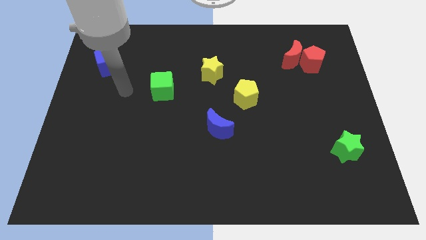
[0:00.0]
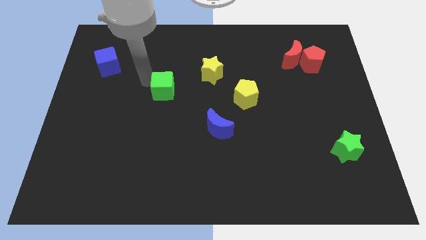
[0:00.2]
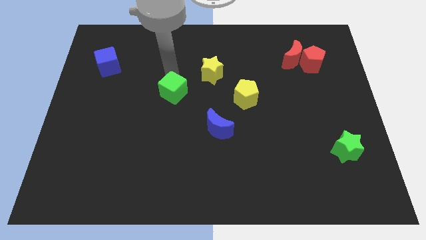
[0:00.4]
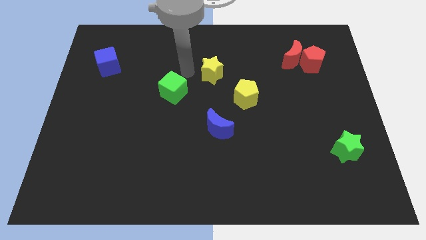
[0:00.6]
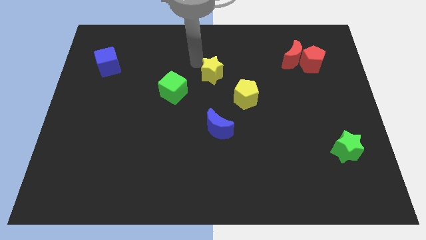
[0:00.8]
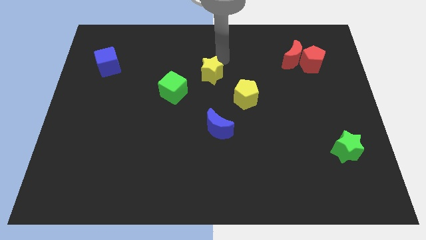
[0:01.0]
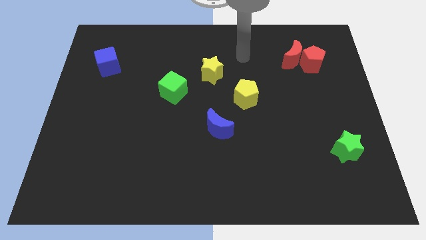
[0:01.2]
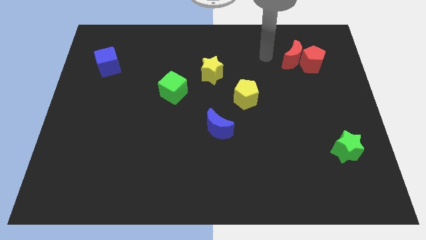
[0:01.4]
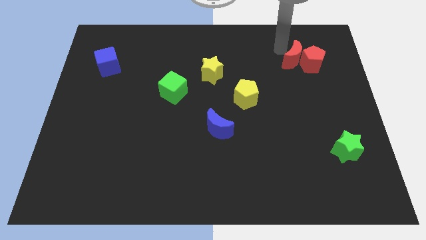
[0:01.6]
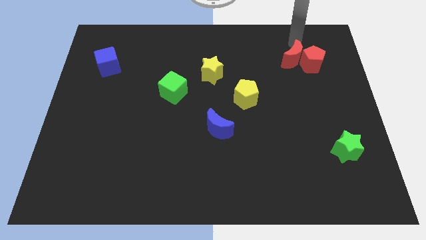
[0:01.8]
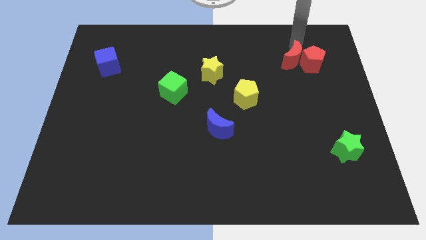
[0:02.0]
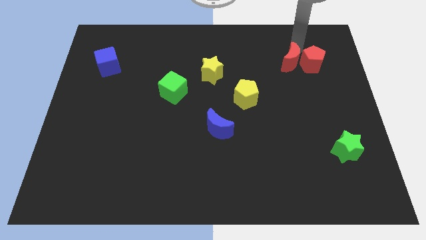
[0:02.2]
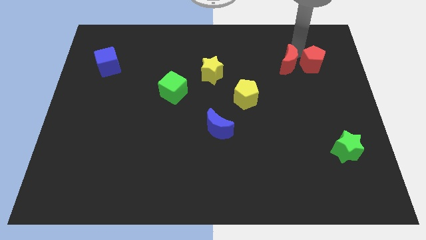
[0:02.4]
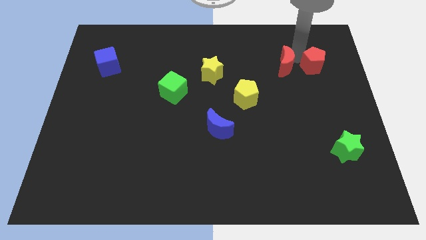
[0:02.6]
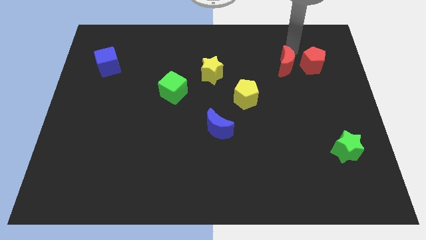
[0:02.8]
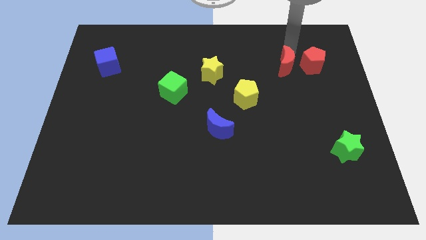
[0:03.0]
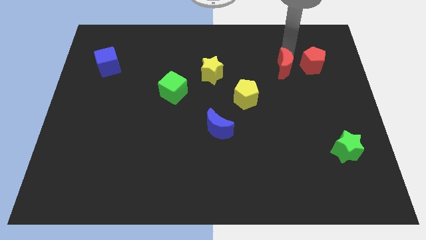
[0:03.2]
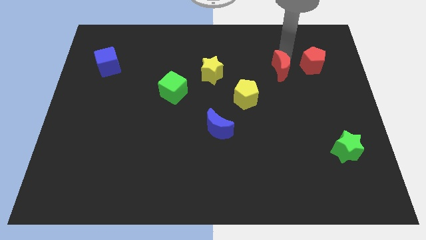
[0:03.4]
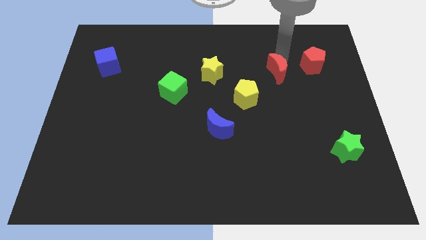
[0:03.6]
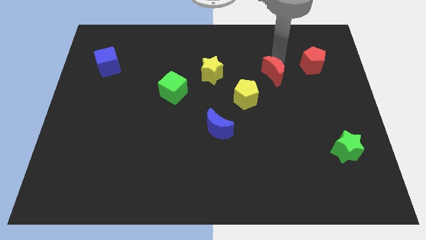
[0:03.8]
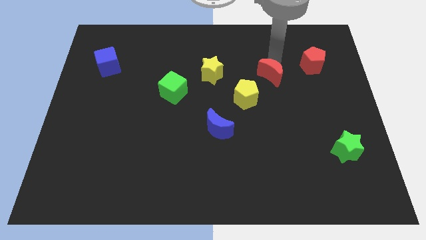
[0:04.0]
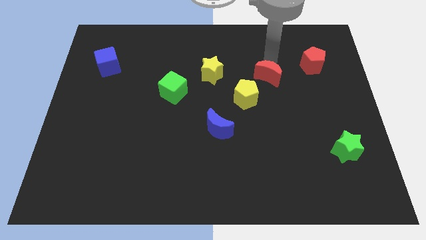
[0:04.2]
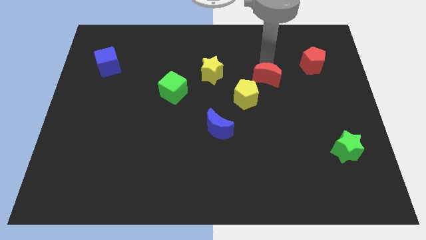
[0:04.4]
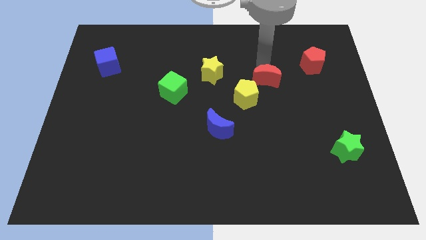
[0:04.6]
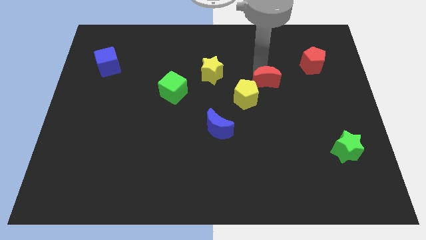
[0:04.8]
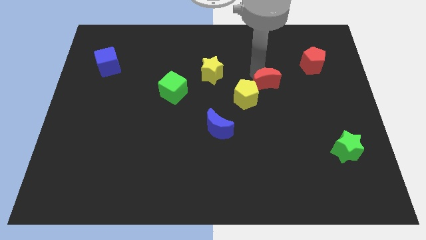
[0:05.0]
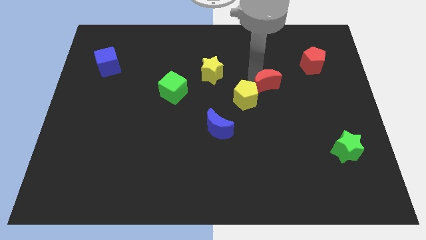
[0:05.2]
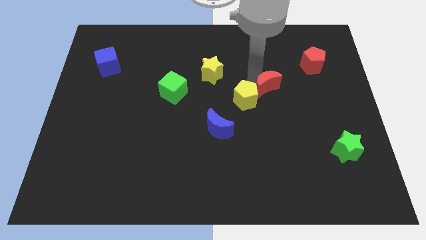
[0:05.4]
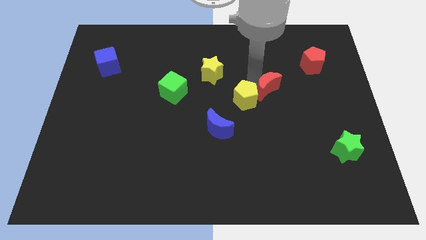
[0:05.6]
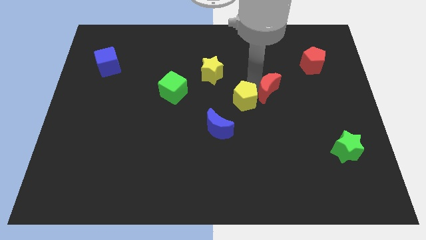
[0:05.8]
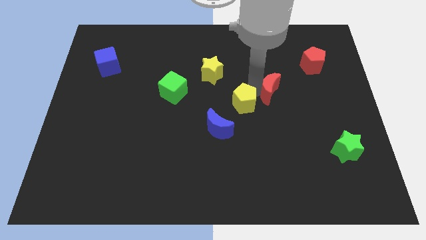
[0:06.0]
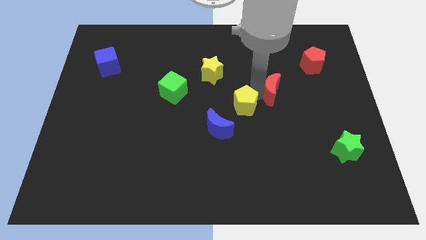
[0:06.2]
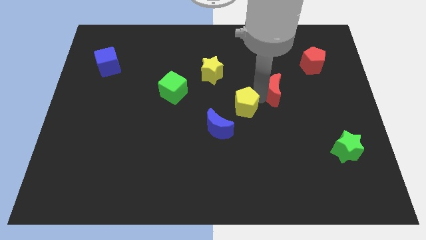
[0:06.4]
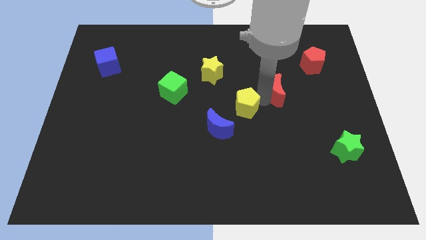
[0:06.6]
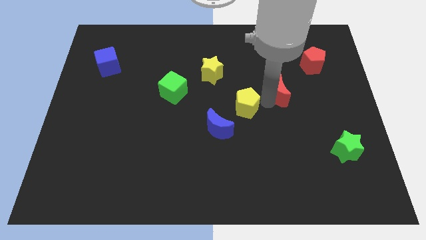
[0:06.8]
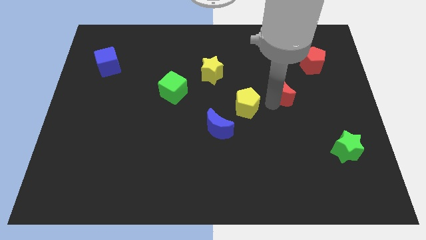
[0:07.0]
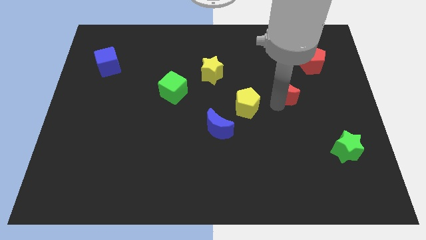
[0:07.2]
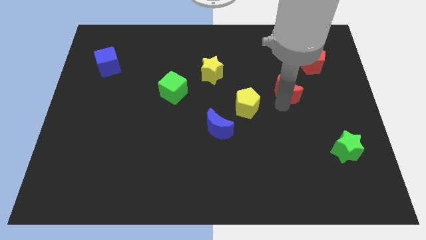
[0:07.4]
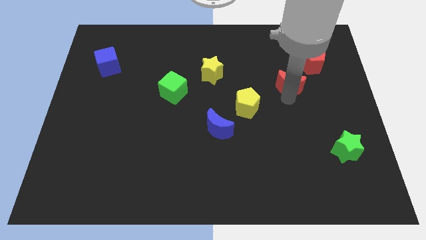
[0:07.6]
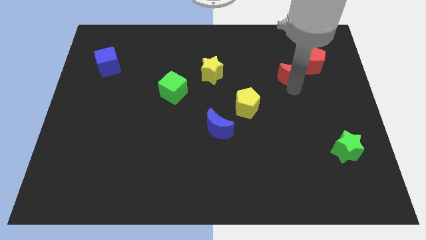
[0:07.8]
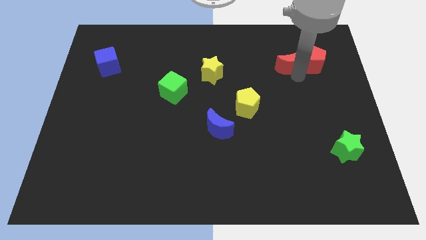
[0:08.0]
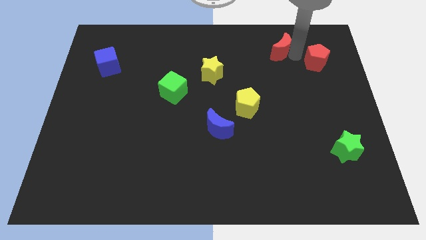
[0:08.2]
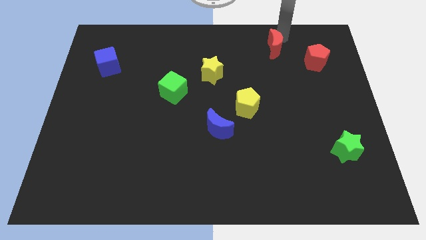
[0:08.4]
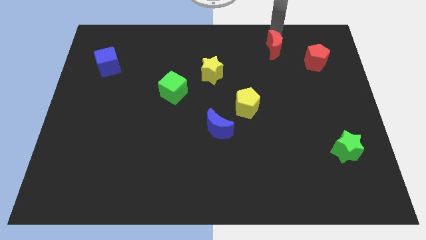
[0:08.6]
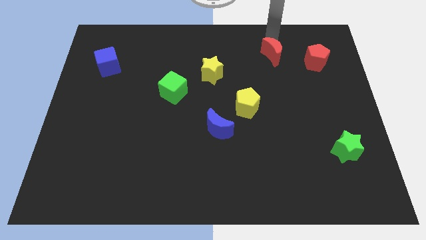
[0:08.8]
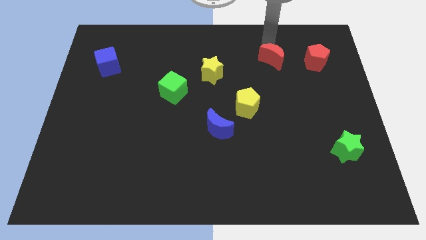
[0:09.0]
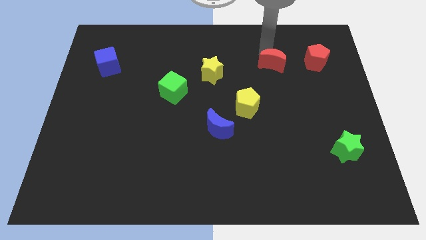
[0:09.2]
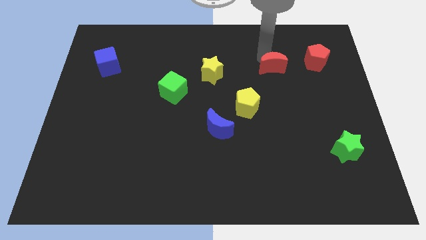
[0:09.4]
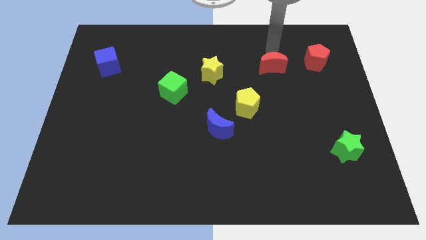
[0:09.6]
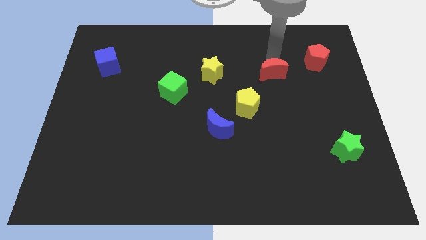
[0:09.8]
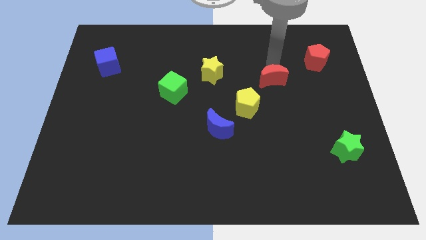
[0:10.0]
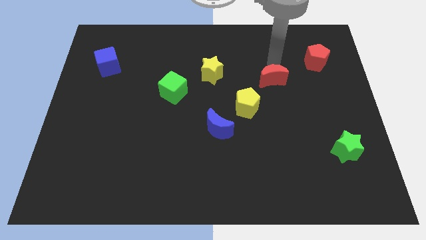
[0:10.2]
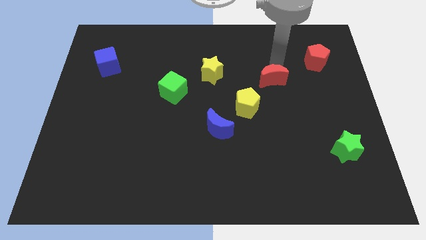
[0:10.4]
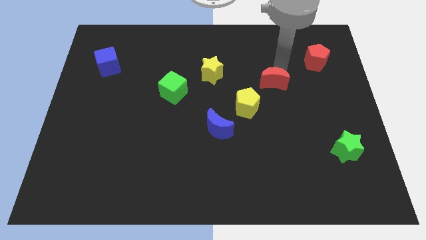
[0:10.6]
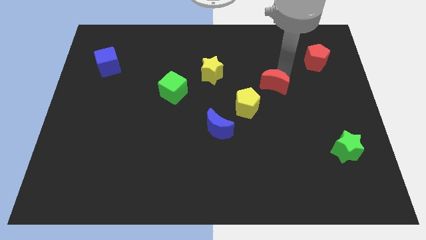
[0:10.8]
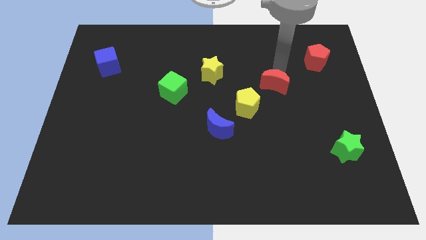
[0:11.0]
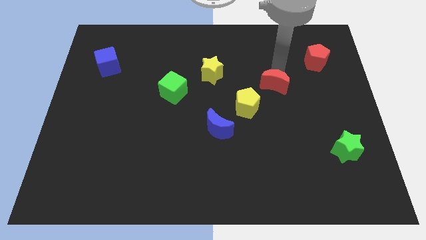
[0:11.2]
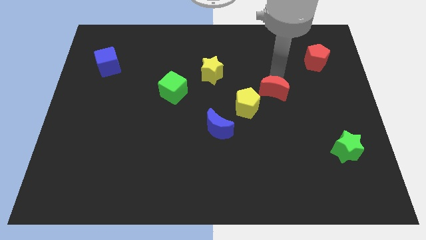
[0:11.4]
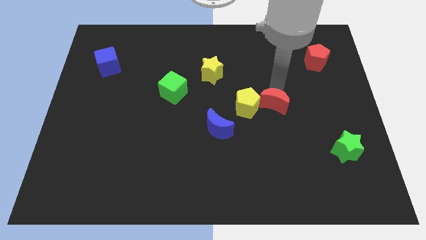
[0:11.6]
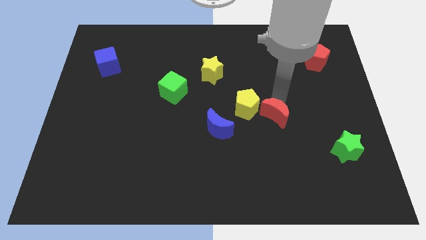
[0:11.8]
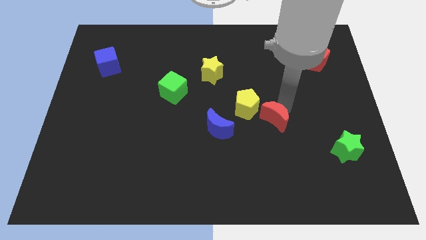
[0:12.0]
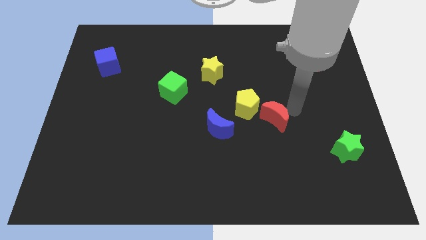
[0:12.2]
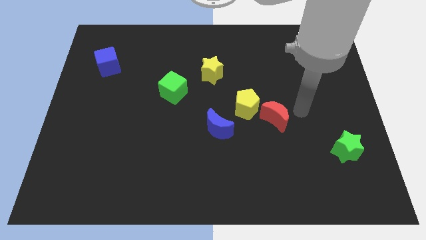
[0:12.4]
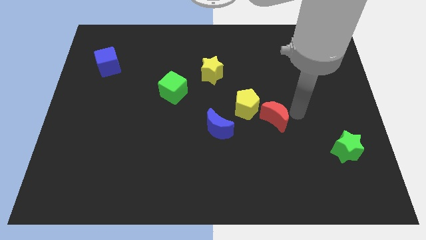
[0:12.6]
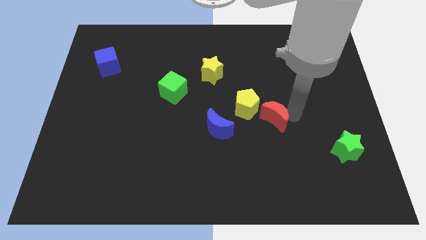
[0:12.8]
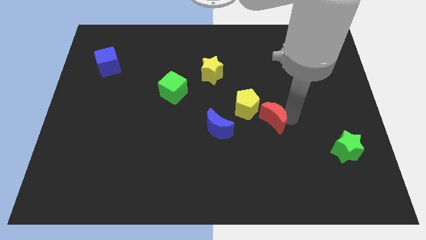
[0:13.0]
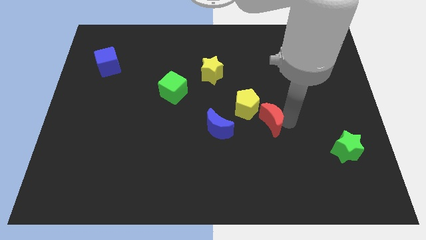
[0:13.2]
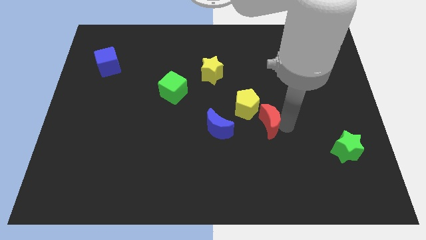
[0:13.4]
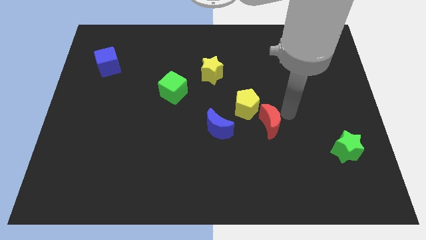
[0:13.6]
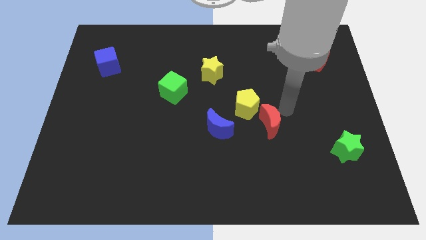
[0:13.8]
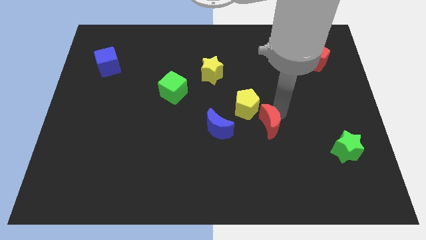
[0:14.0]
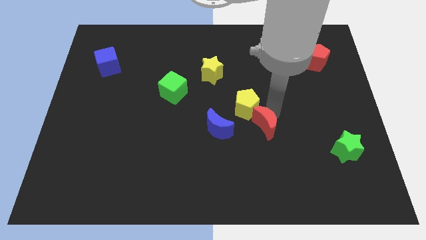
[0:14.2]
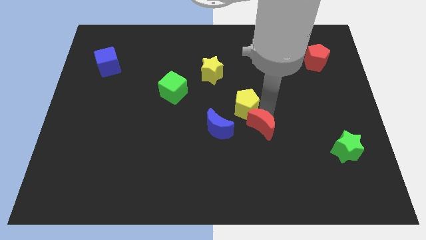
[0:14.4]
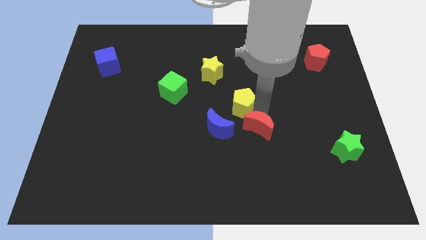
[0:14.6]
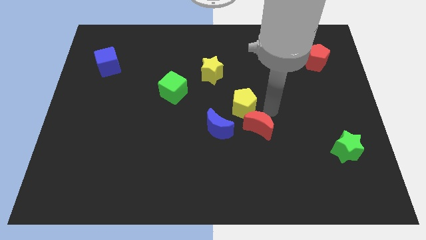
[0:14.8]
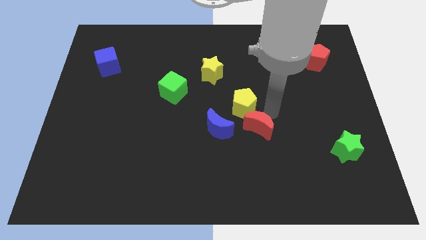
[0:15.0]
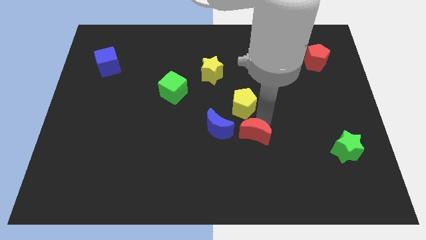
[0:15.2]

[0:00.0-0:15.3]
slide the red moon to the bottom right side of the blue moon
